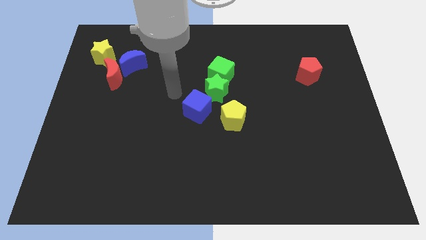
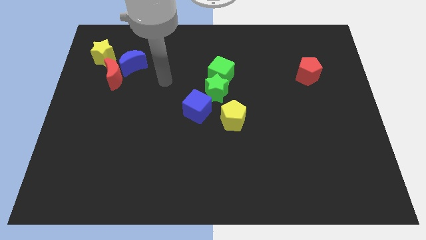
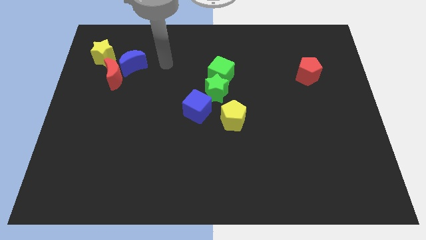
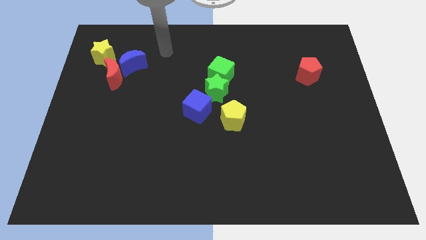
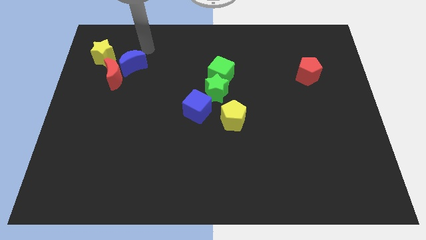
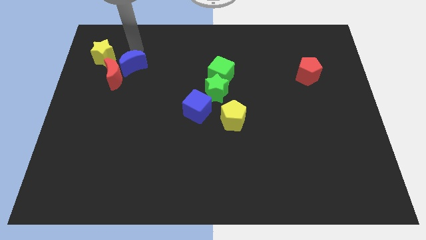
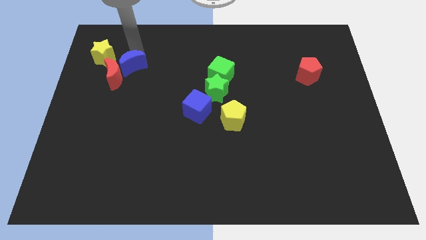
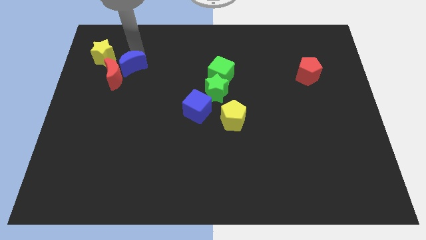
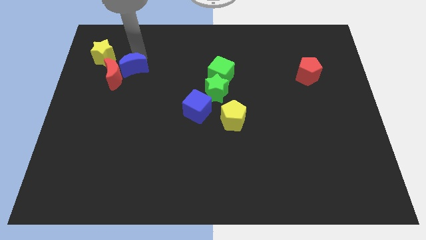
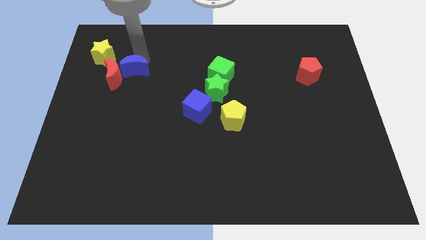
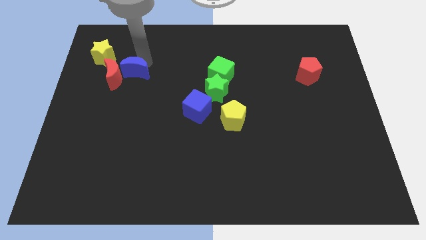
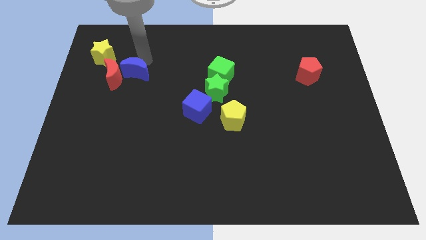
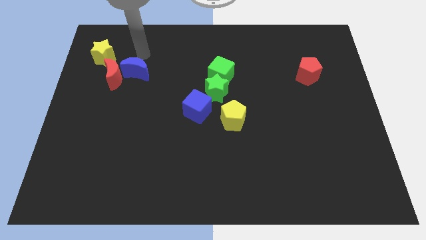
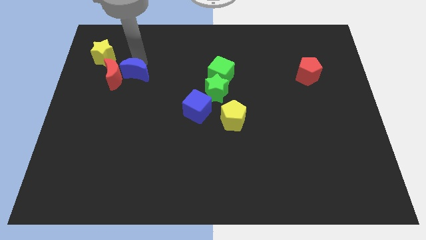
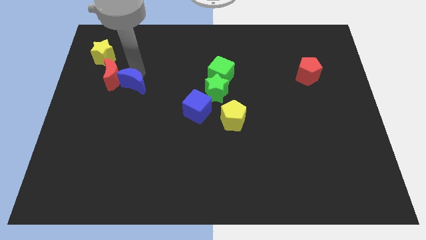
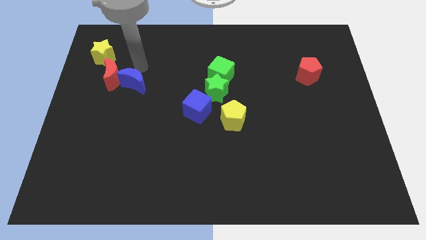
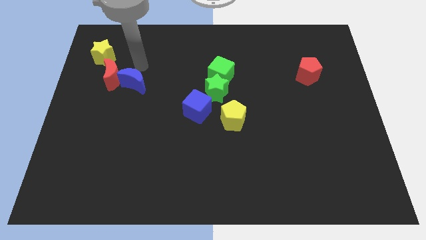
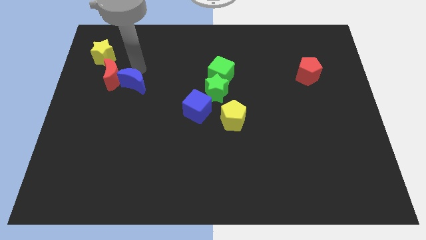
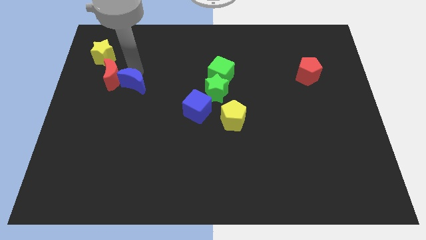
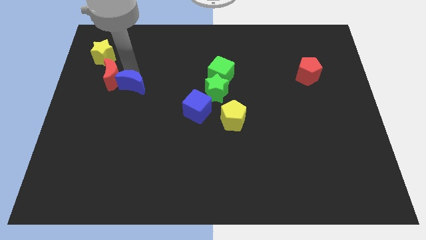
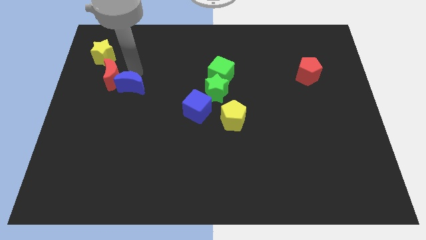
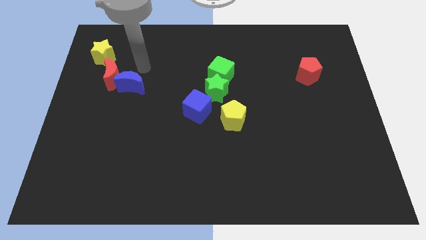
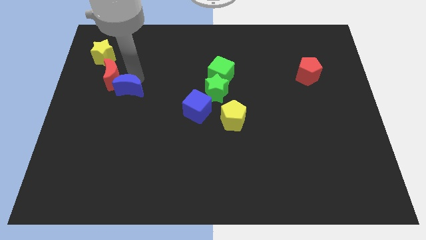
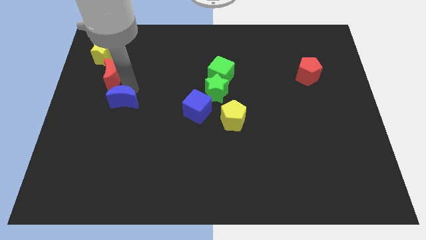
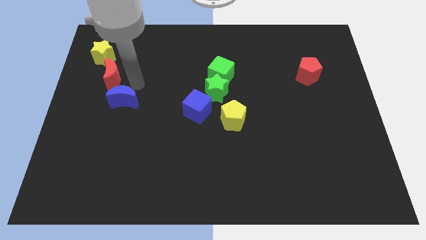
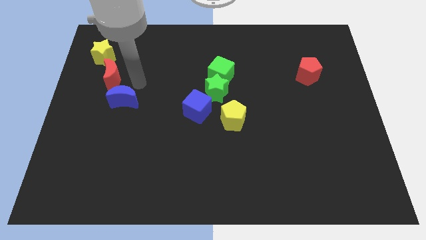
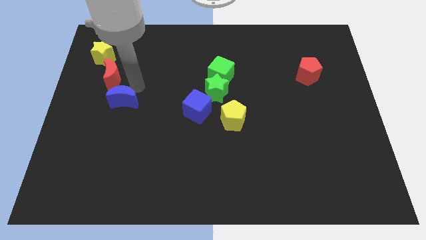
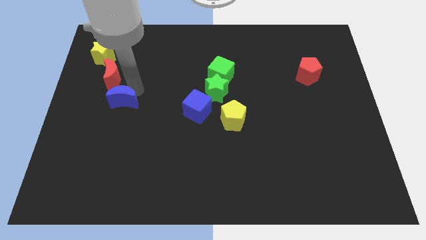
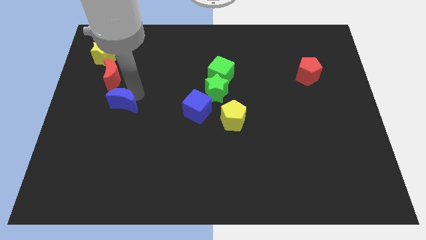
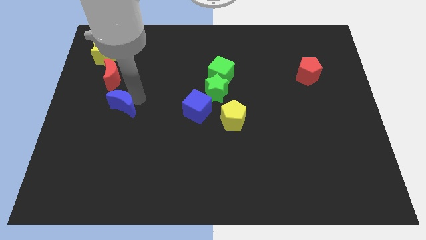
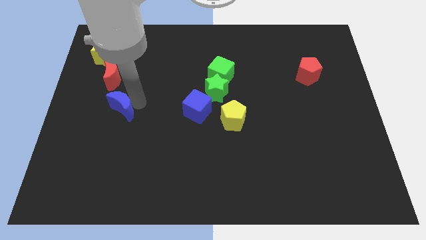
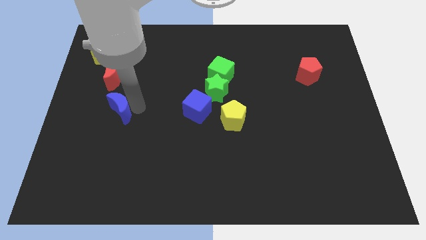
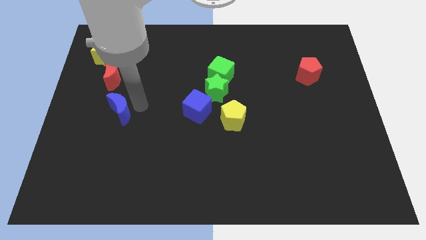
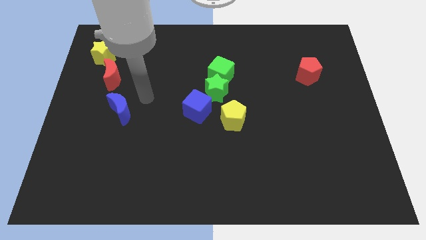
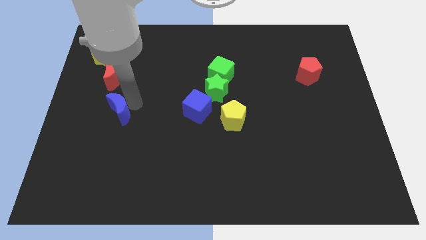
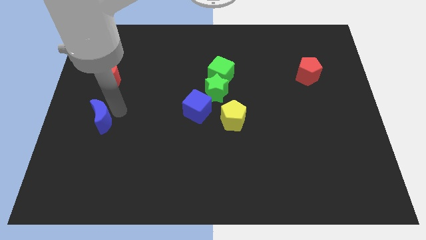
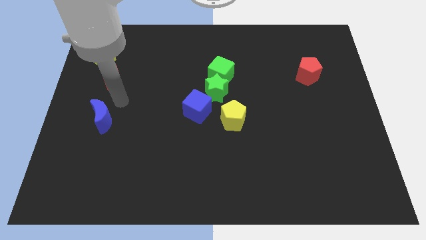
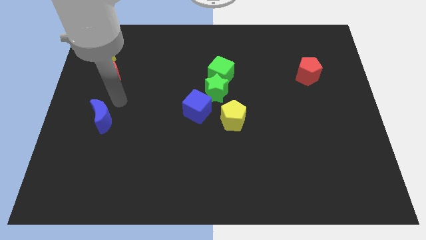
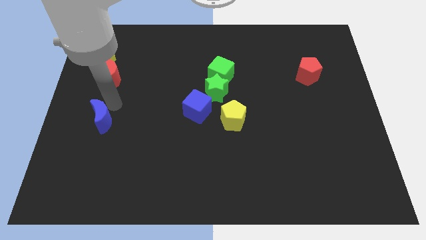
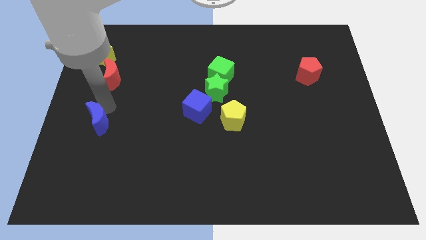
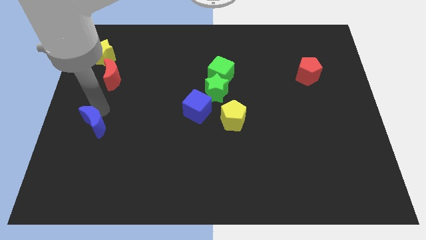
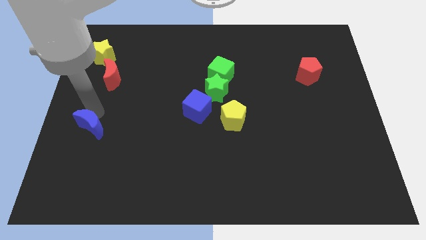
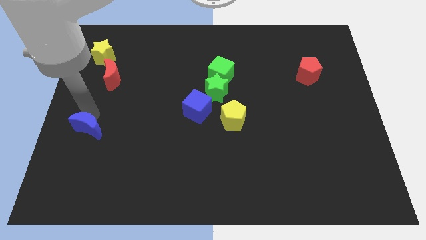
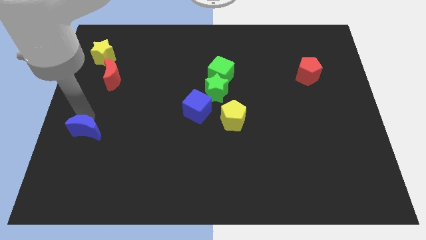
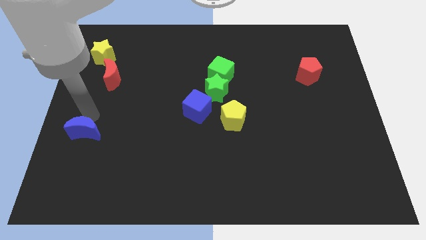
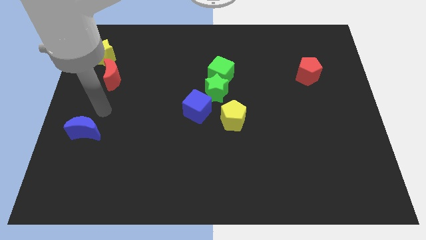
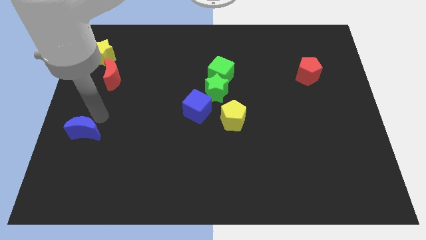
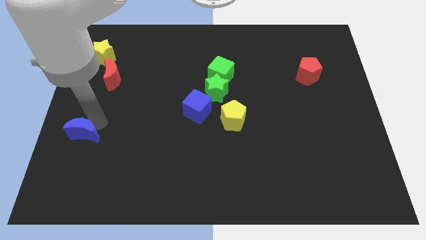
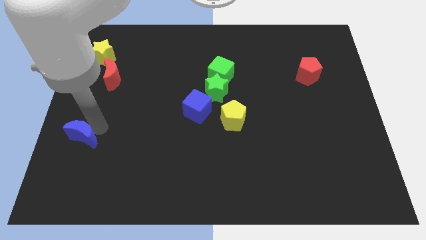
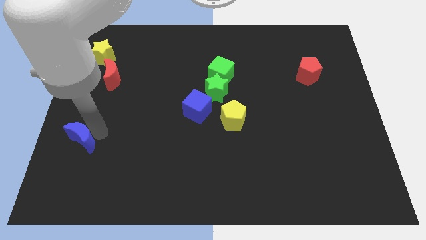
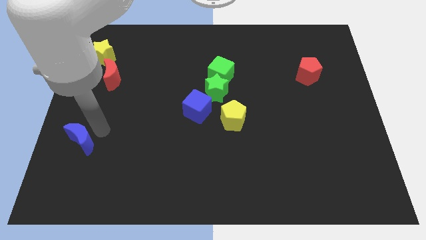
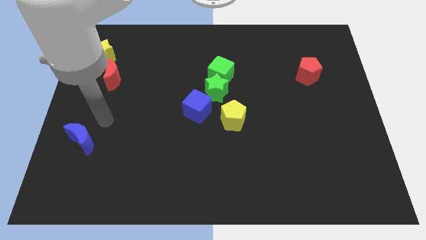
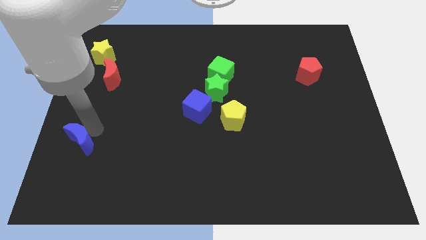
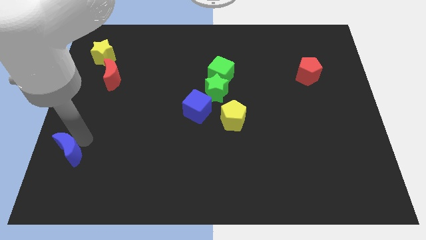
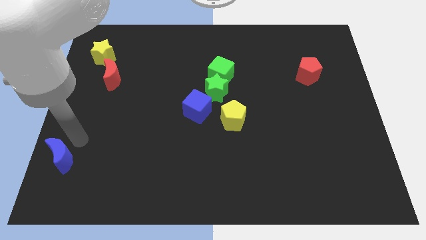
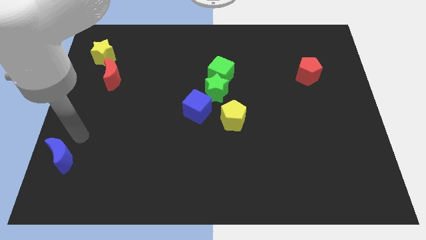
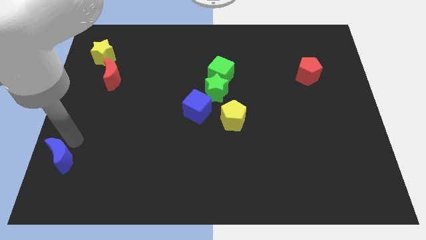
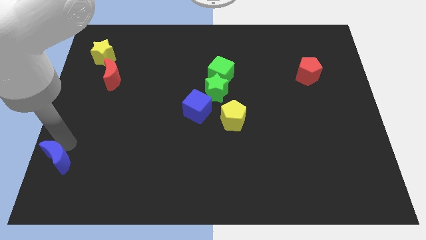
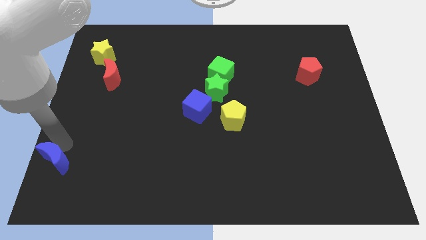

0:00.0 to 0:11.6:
slide the blue moon to the lower left corner

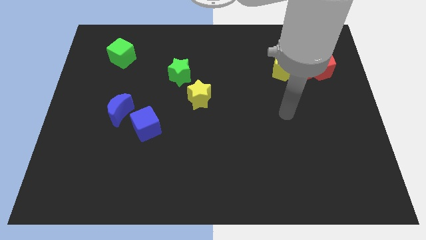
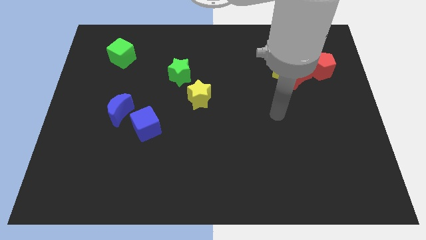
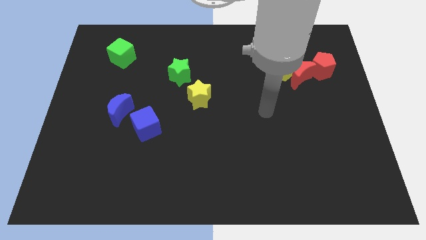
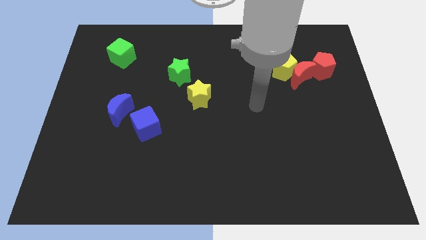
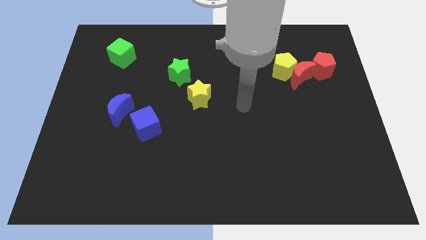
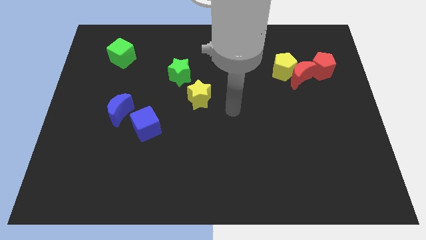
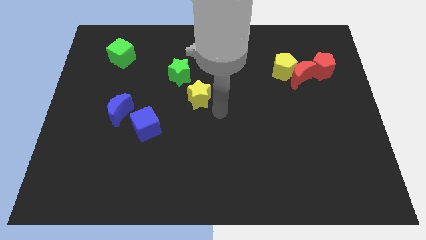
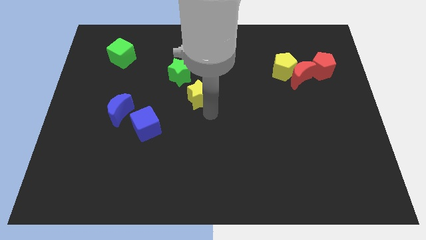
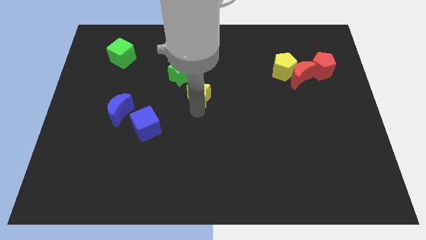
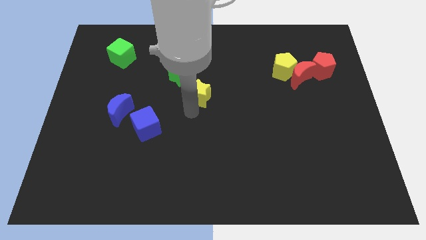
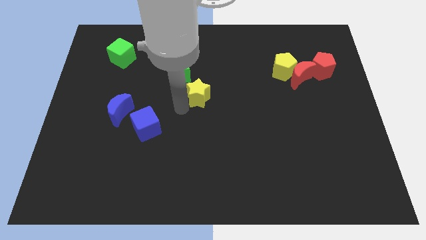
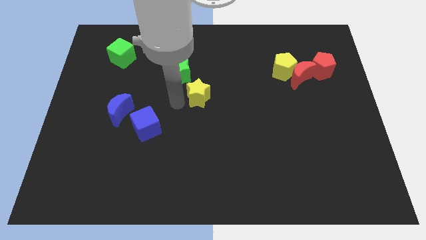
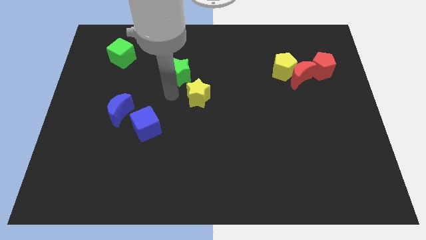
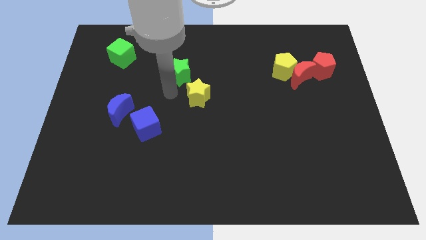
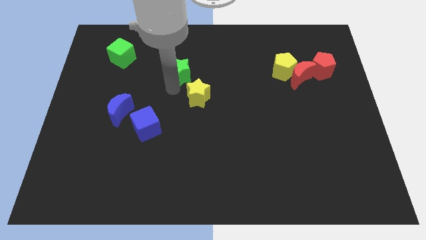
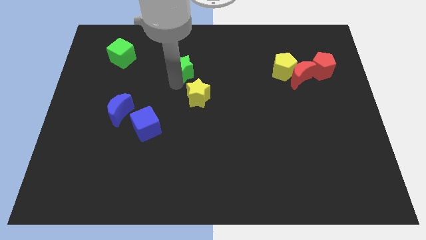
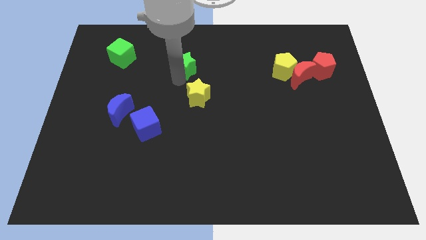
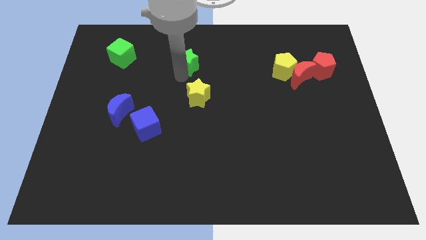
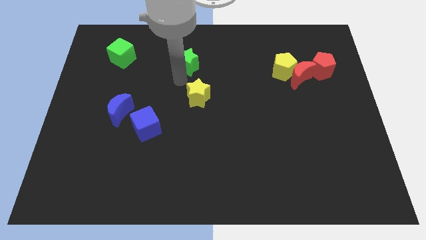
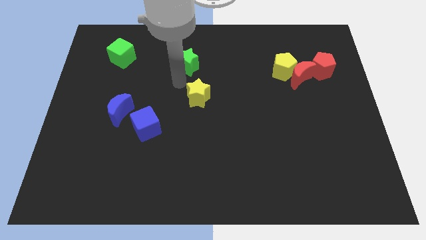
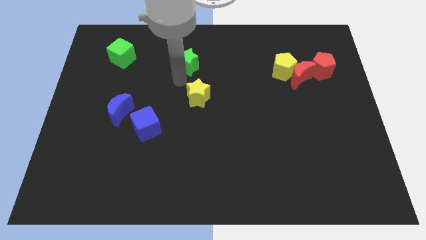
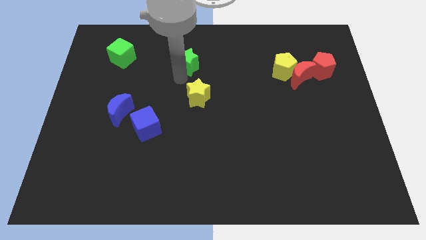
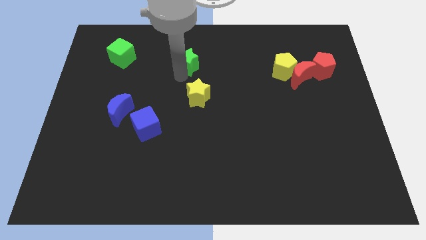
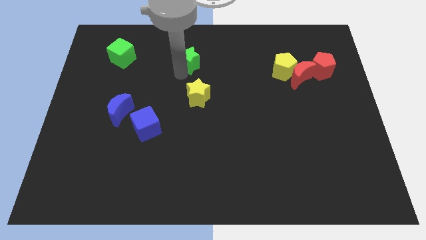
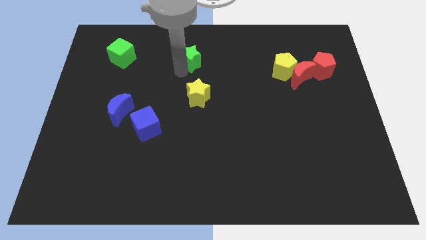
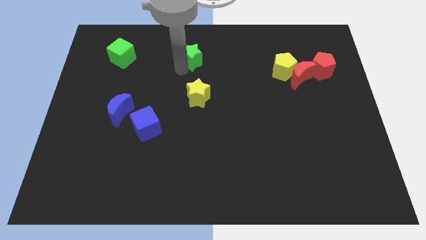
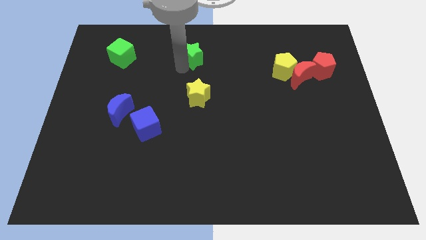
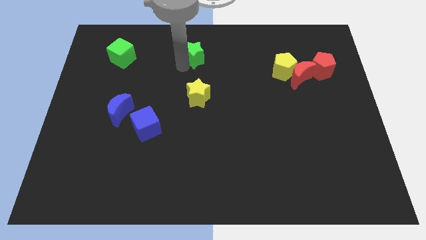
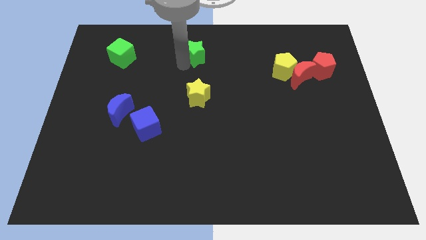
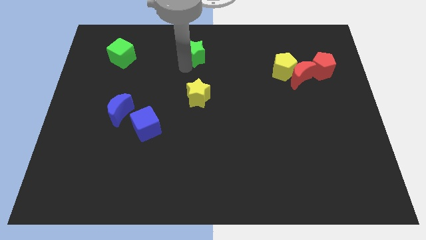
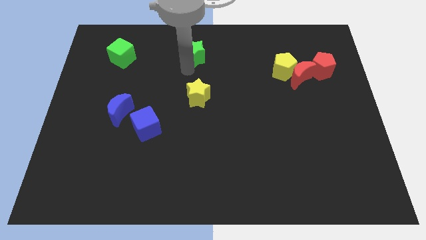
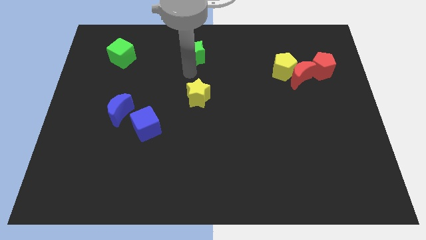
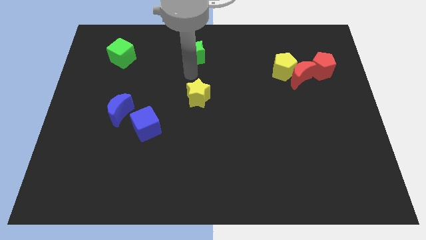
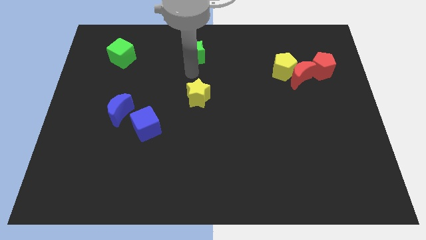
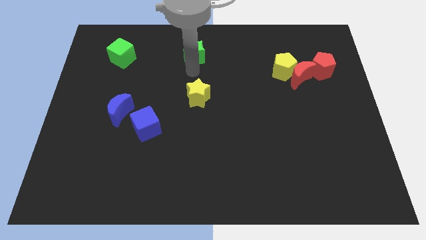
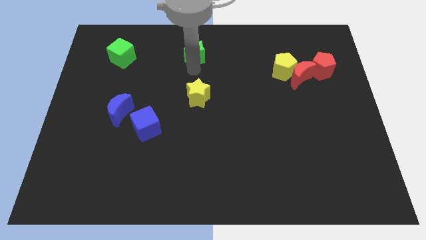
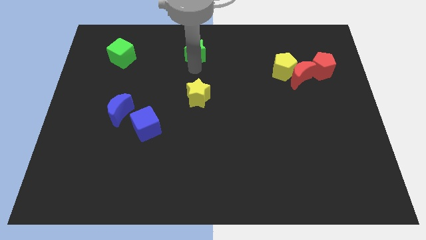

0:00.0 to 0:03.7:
put the green star to the towards your base
